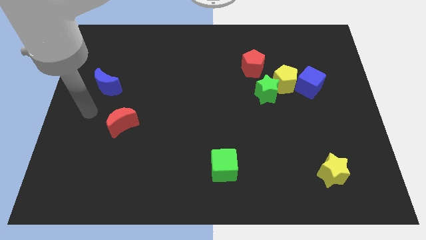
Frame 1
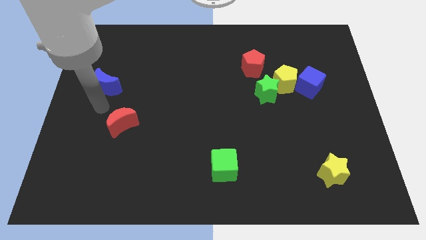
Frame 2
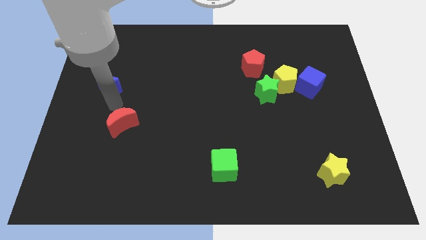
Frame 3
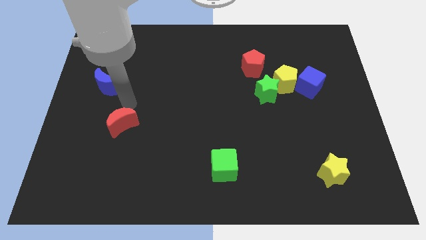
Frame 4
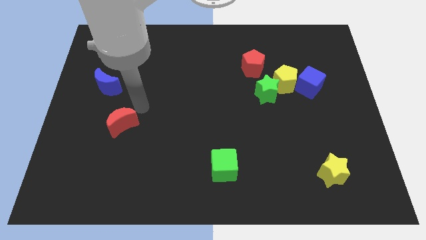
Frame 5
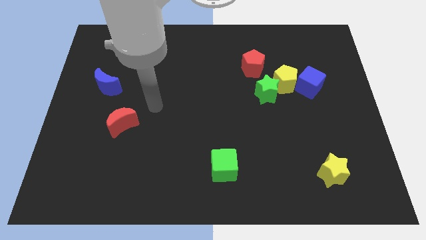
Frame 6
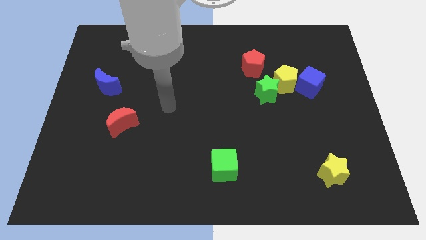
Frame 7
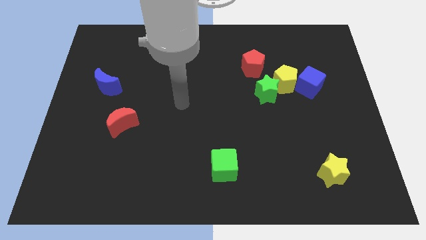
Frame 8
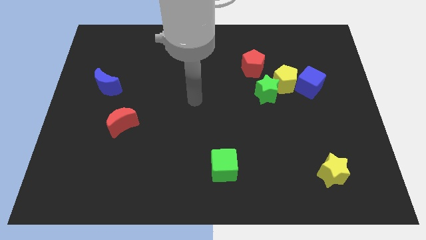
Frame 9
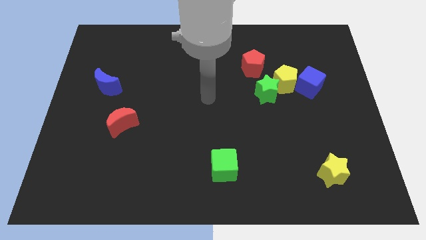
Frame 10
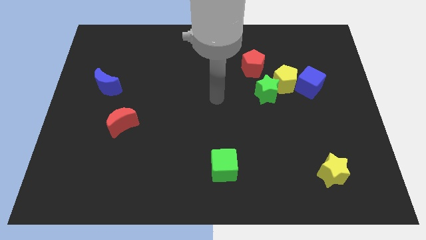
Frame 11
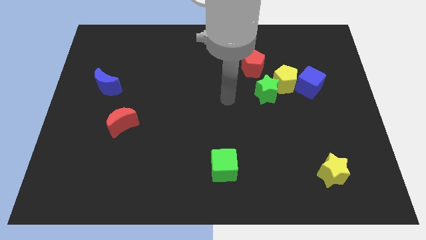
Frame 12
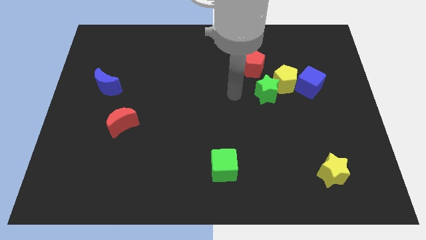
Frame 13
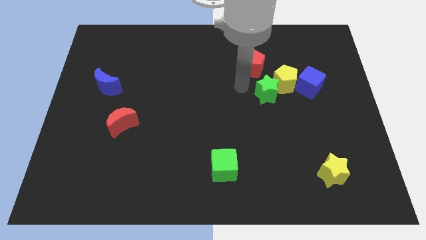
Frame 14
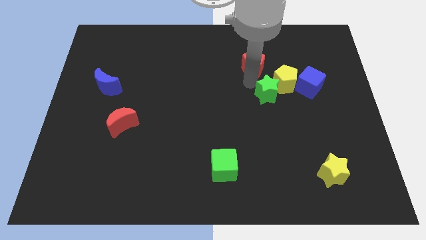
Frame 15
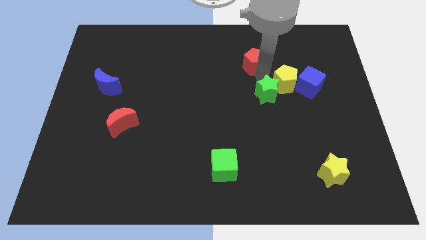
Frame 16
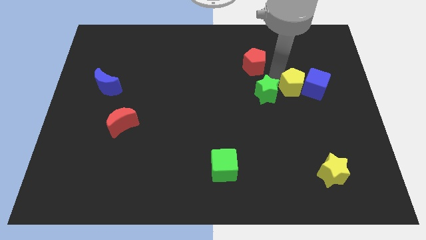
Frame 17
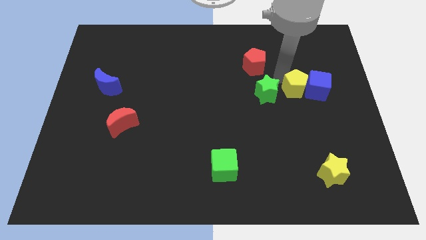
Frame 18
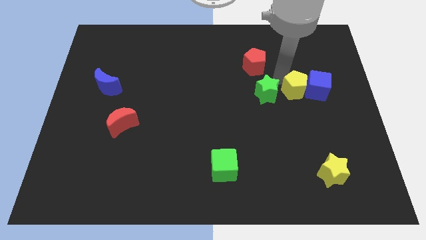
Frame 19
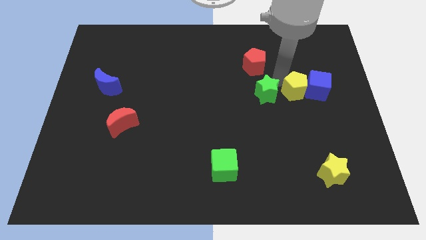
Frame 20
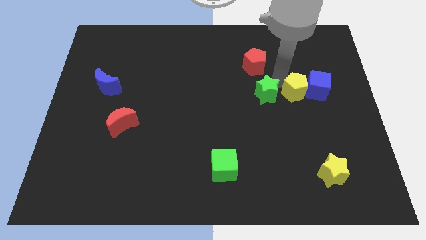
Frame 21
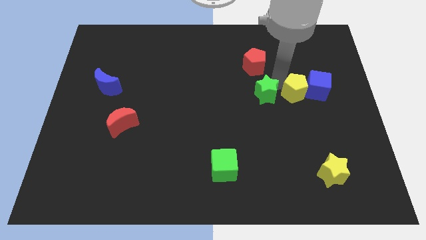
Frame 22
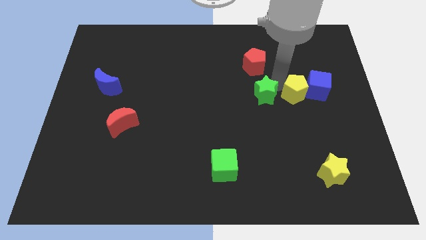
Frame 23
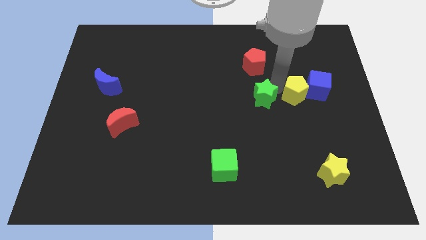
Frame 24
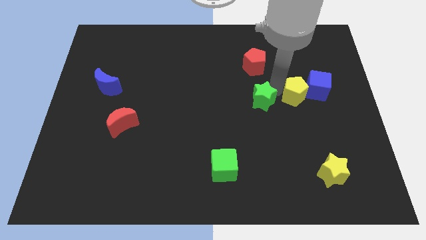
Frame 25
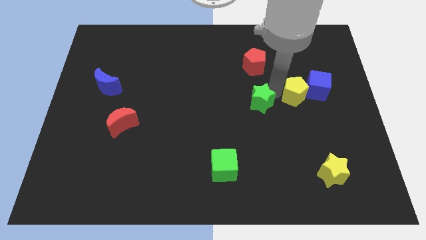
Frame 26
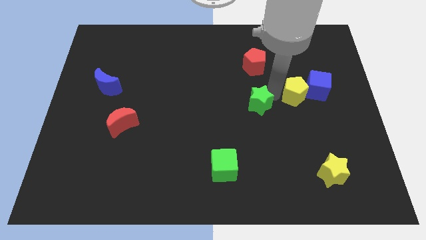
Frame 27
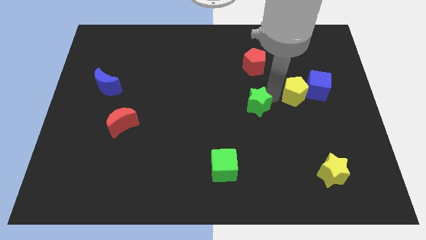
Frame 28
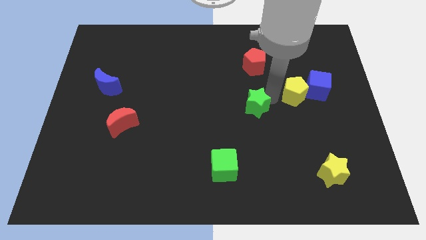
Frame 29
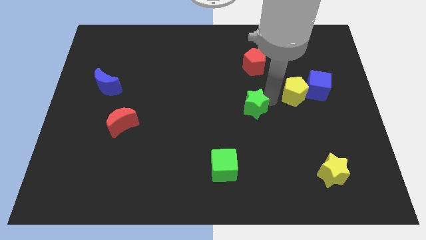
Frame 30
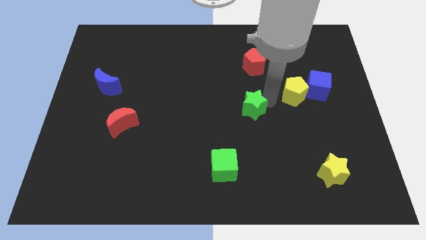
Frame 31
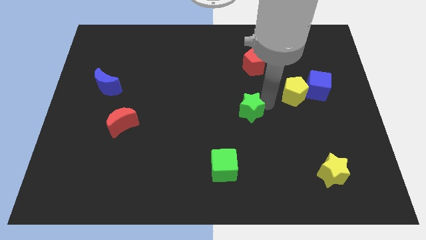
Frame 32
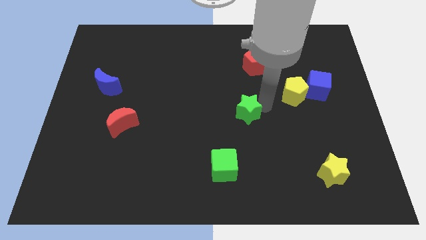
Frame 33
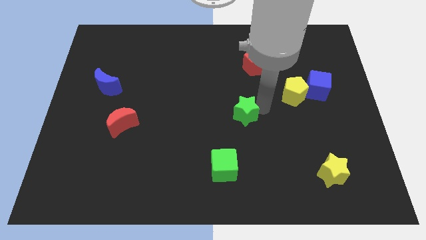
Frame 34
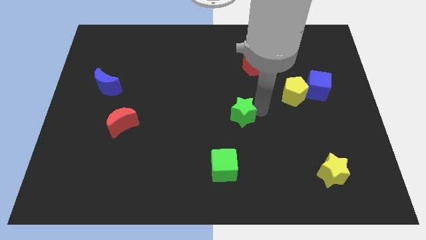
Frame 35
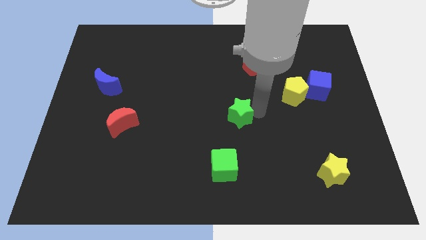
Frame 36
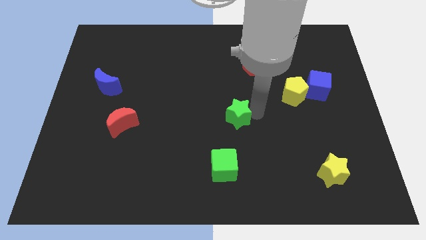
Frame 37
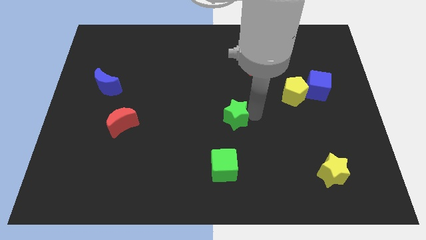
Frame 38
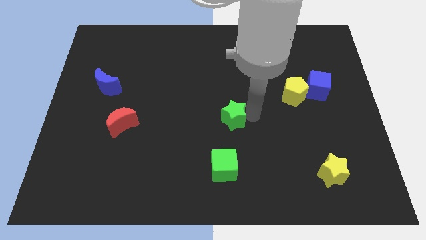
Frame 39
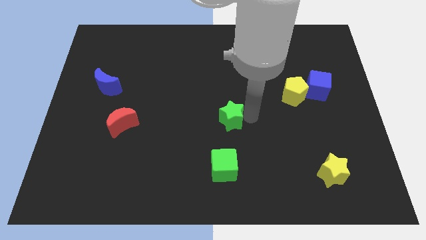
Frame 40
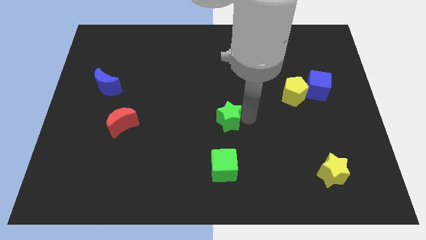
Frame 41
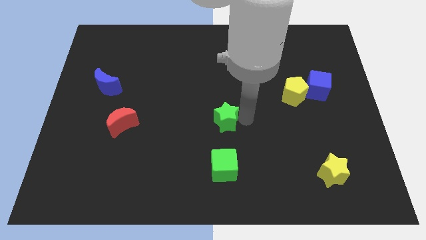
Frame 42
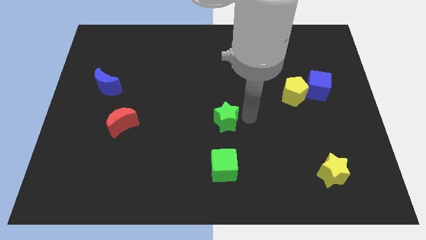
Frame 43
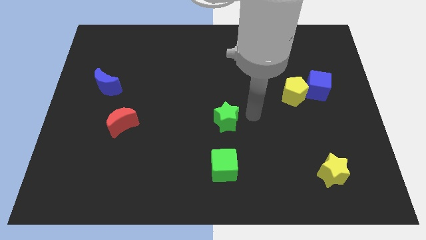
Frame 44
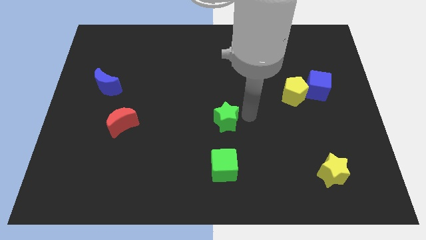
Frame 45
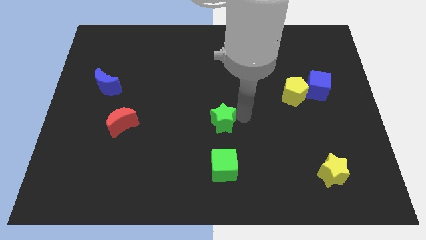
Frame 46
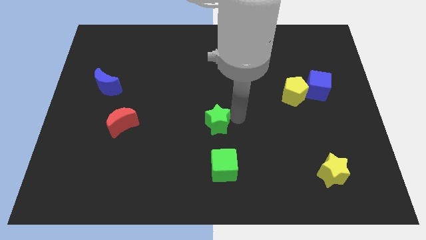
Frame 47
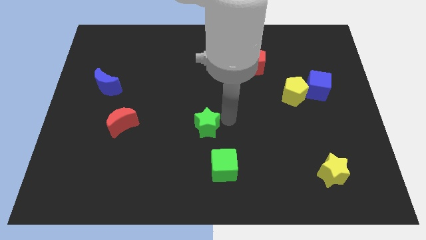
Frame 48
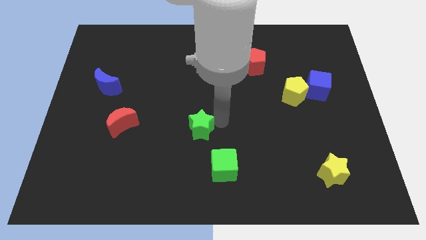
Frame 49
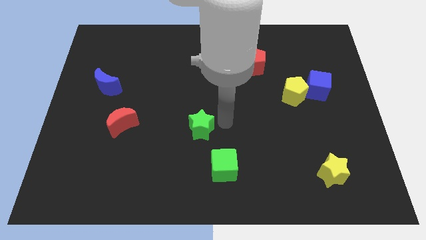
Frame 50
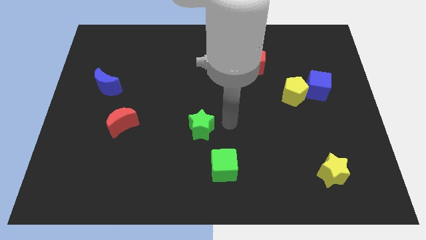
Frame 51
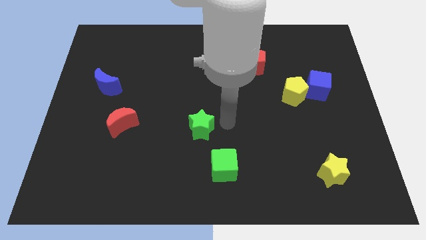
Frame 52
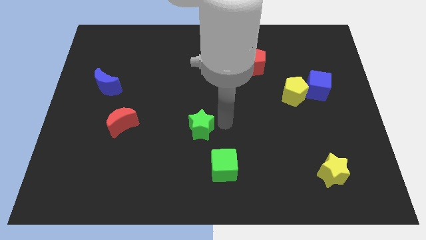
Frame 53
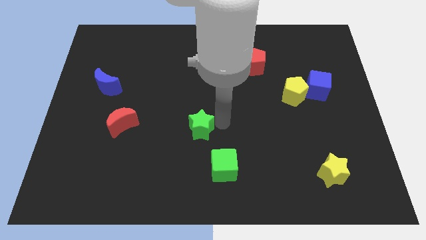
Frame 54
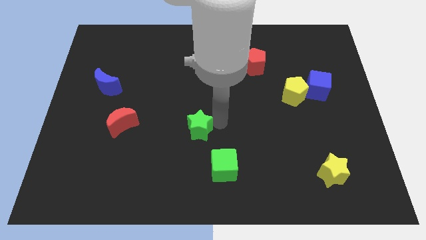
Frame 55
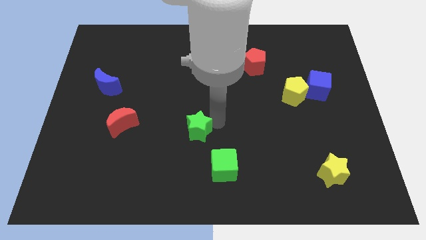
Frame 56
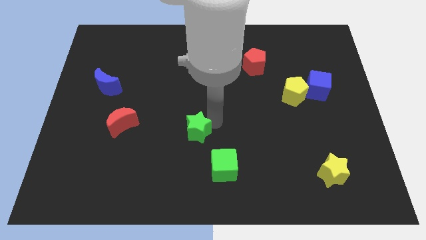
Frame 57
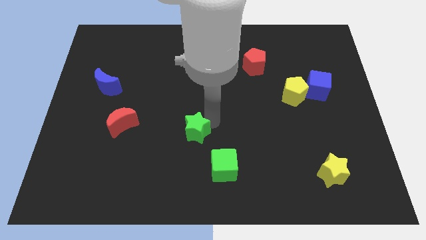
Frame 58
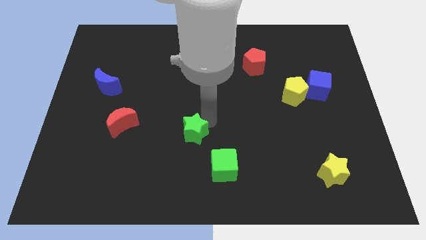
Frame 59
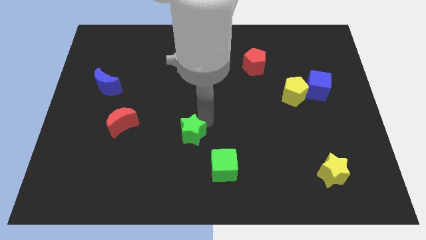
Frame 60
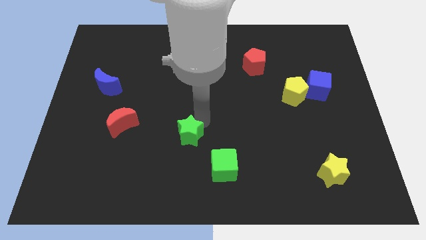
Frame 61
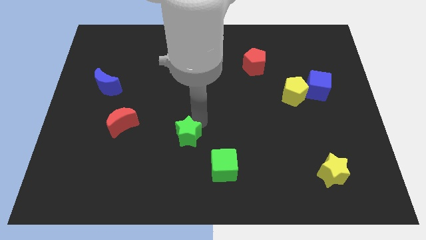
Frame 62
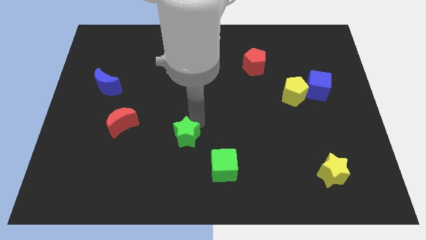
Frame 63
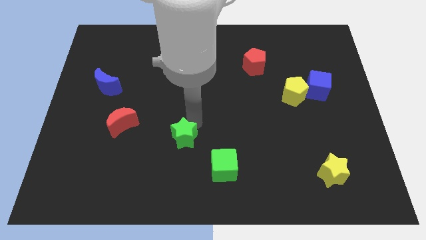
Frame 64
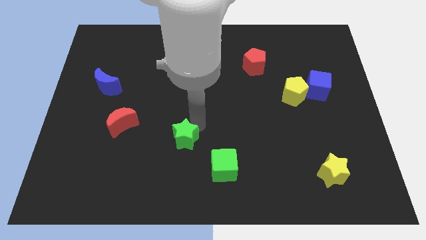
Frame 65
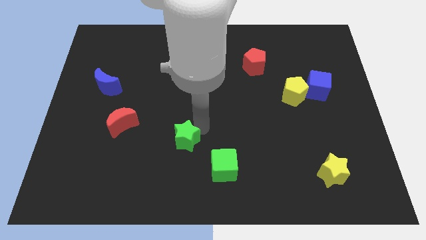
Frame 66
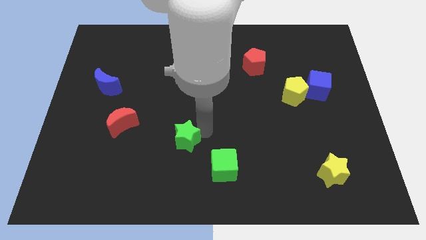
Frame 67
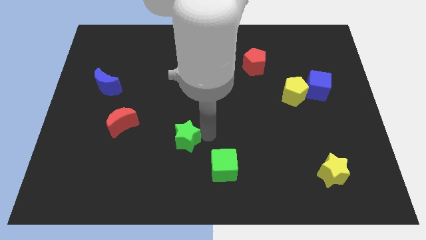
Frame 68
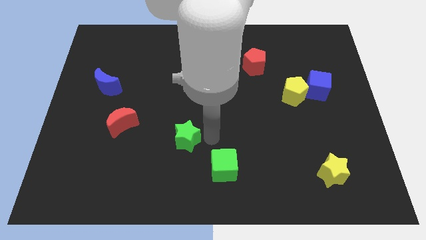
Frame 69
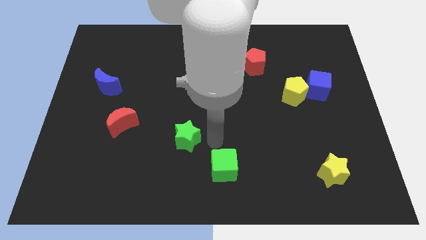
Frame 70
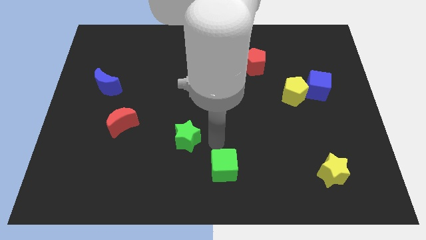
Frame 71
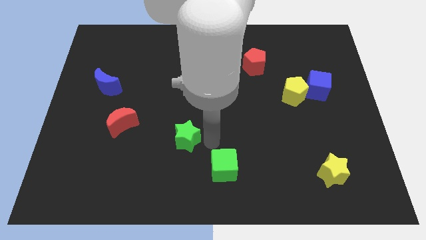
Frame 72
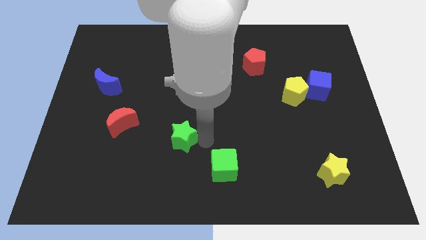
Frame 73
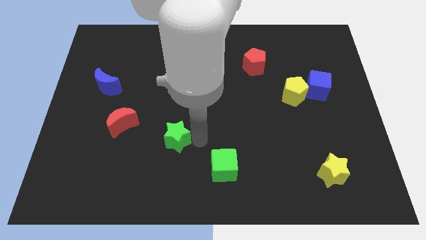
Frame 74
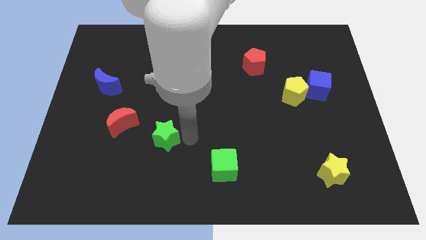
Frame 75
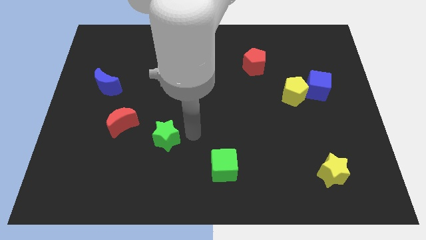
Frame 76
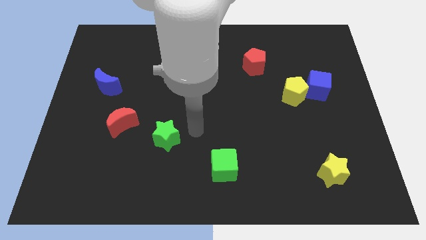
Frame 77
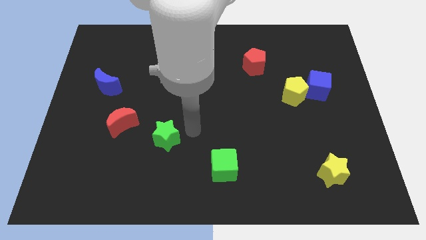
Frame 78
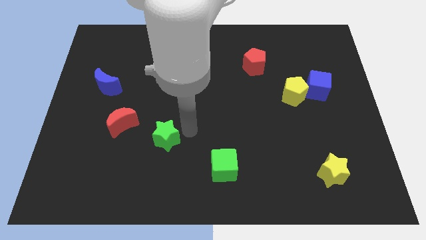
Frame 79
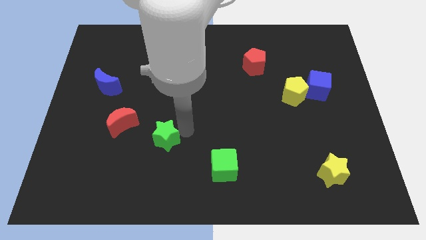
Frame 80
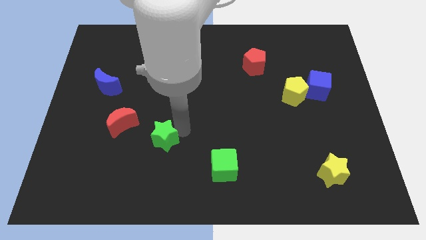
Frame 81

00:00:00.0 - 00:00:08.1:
slide the green star to the bottom right side of the red moon
